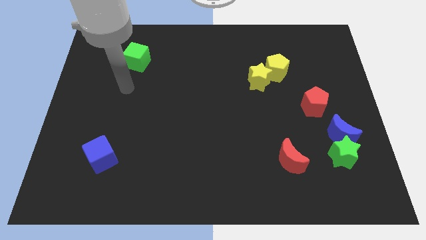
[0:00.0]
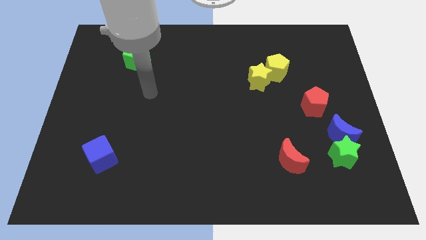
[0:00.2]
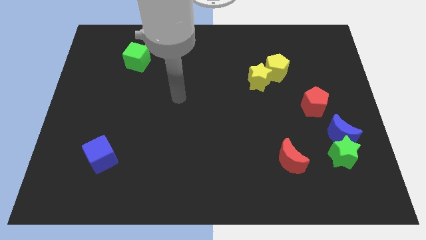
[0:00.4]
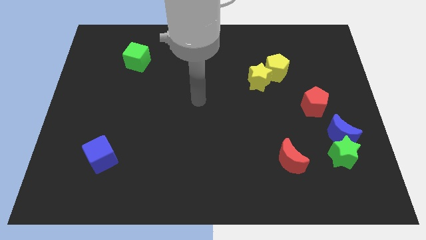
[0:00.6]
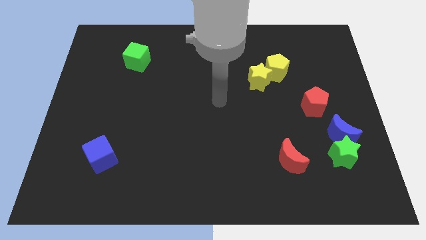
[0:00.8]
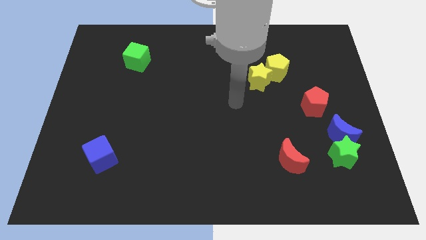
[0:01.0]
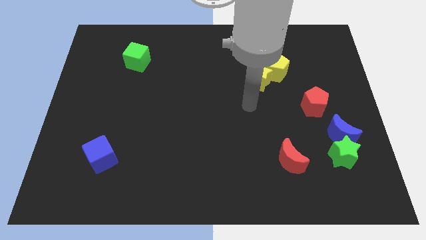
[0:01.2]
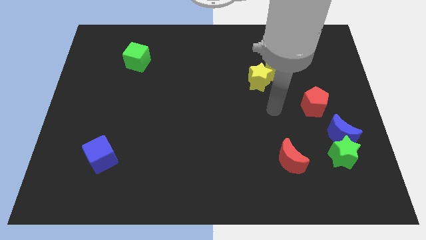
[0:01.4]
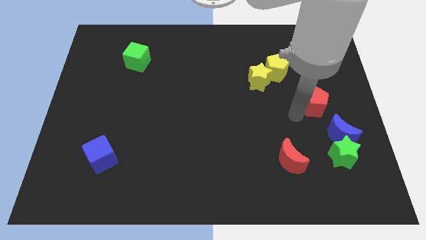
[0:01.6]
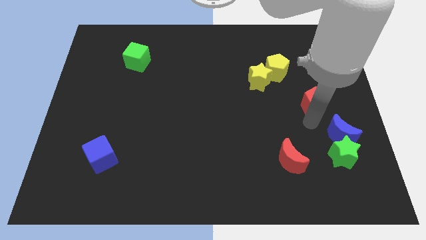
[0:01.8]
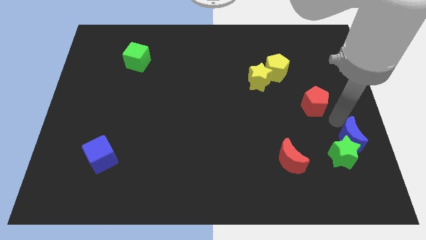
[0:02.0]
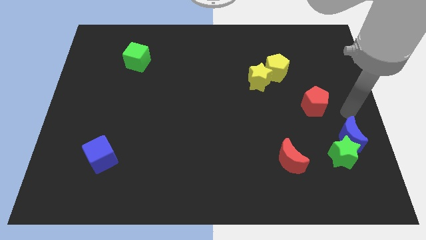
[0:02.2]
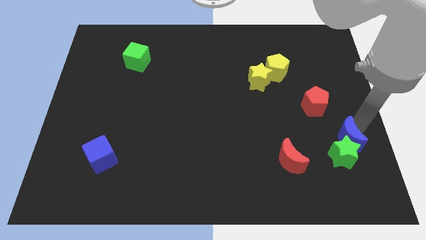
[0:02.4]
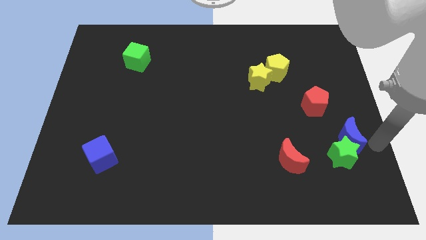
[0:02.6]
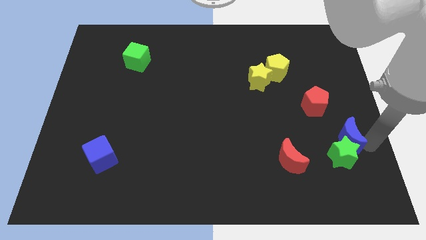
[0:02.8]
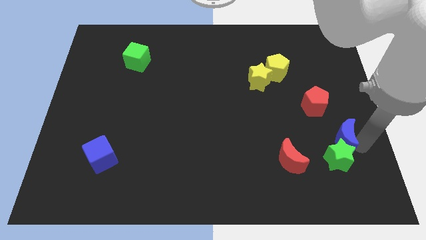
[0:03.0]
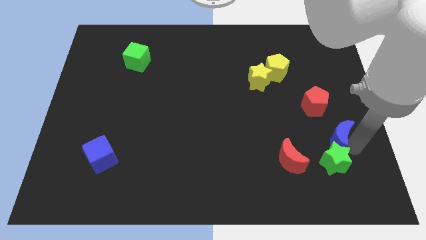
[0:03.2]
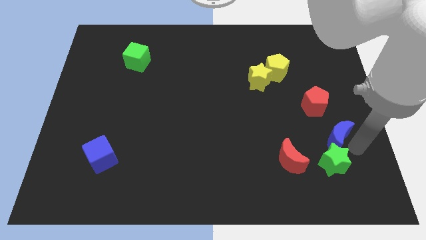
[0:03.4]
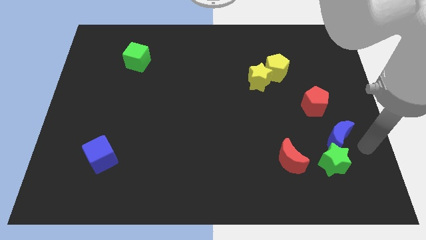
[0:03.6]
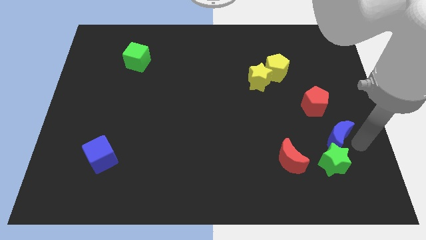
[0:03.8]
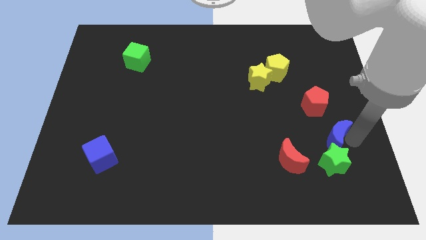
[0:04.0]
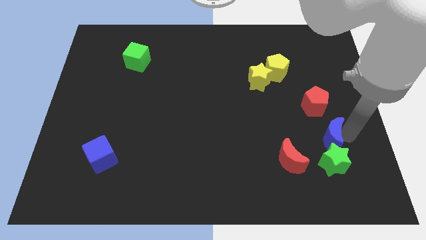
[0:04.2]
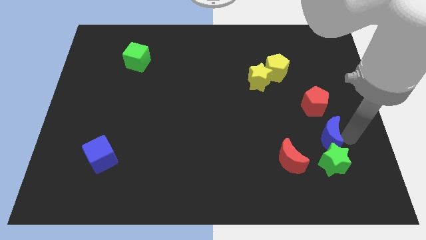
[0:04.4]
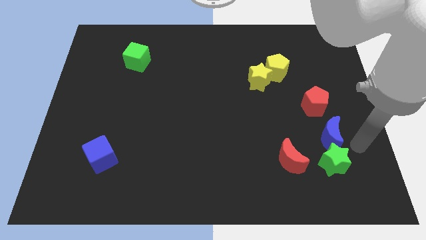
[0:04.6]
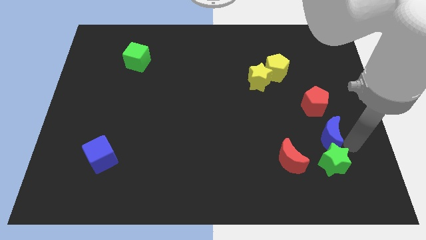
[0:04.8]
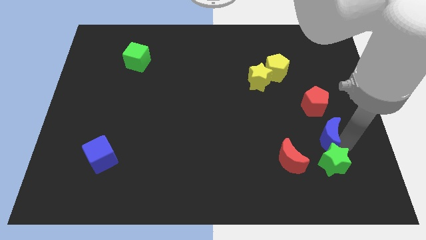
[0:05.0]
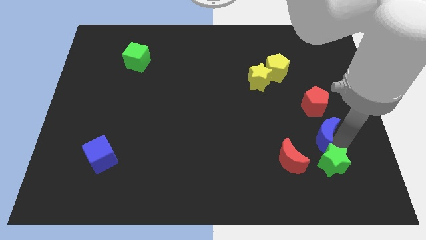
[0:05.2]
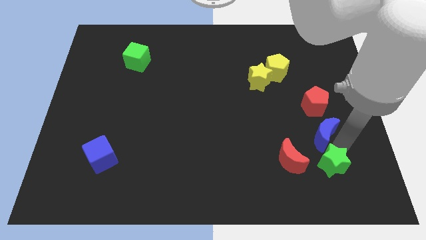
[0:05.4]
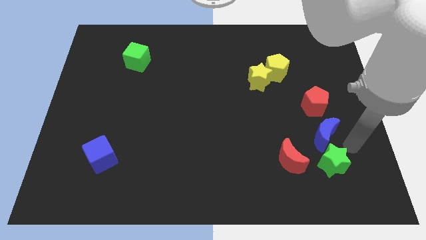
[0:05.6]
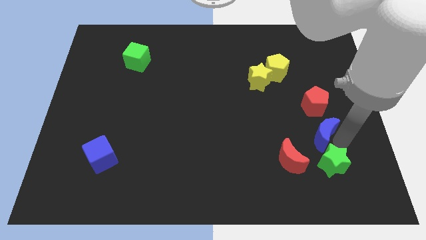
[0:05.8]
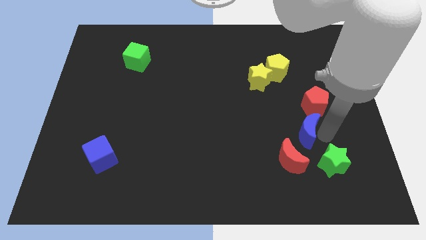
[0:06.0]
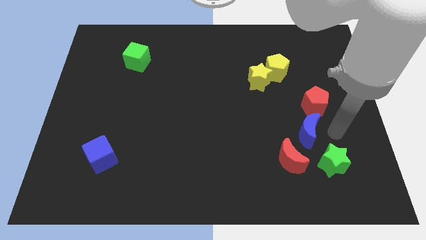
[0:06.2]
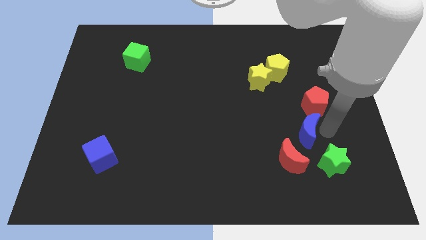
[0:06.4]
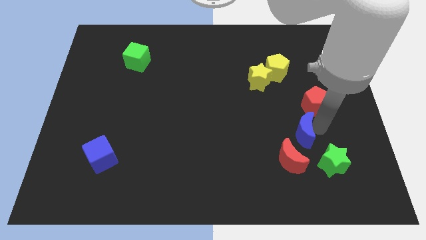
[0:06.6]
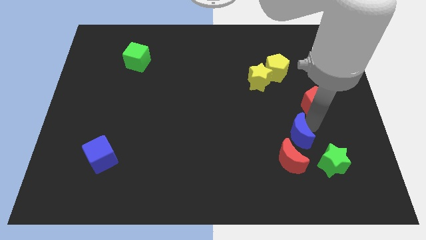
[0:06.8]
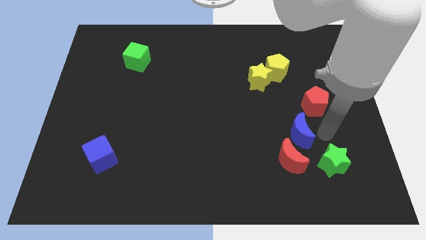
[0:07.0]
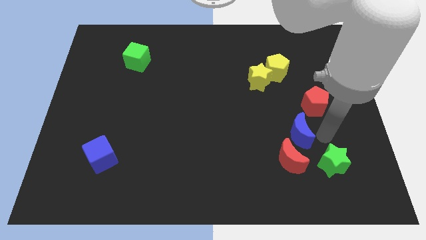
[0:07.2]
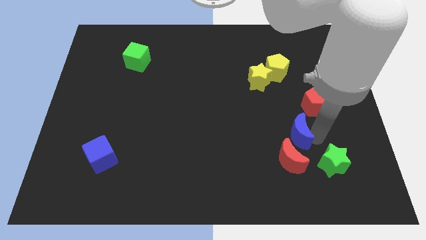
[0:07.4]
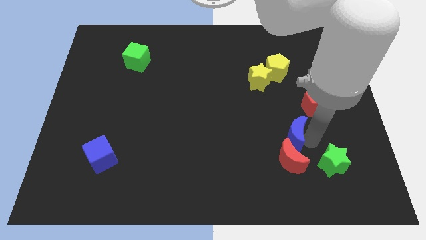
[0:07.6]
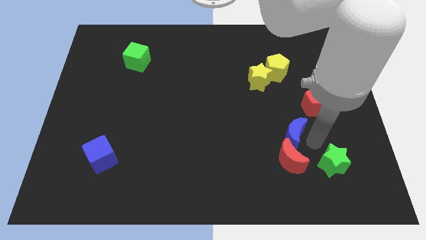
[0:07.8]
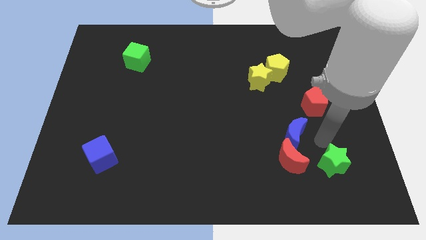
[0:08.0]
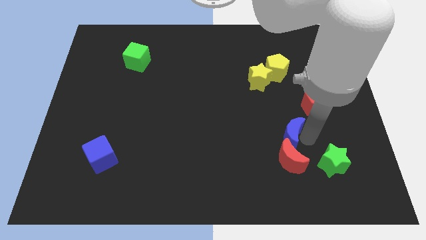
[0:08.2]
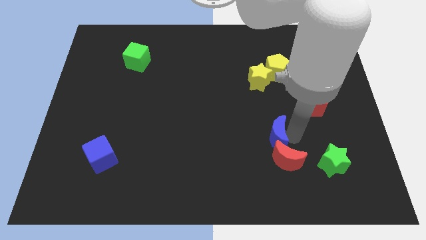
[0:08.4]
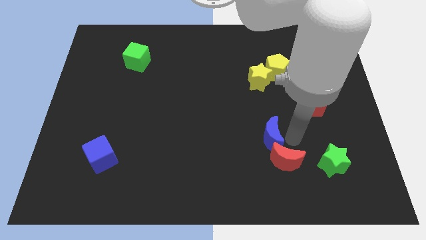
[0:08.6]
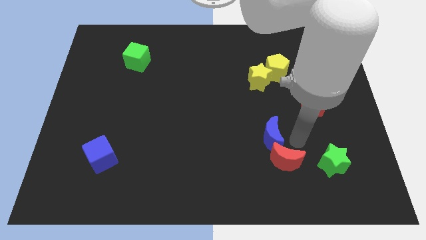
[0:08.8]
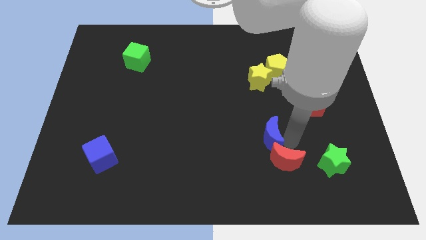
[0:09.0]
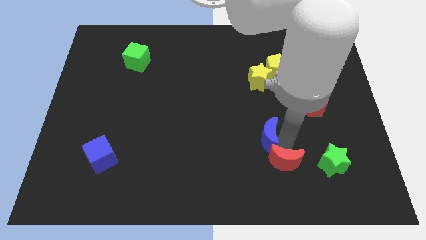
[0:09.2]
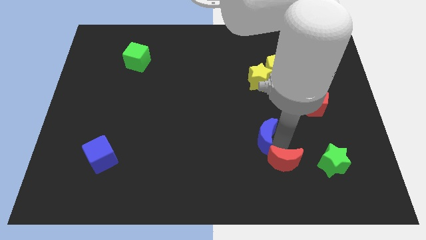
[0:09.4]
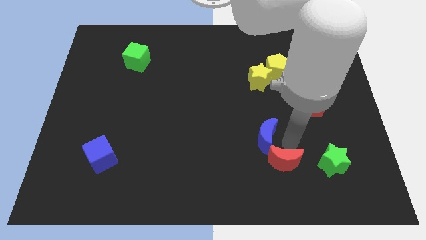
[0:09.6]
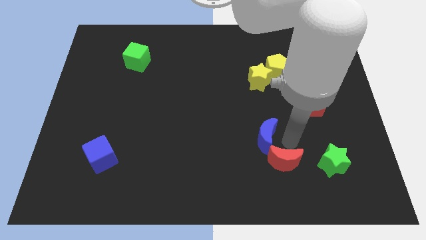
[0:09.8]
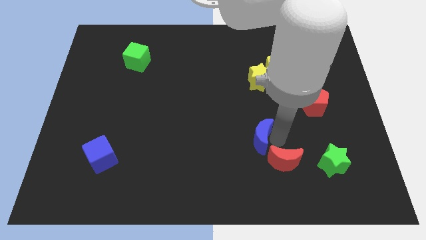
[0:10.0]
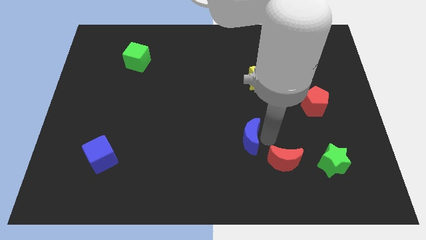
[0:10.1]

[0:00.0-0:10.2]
push the blue moon left

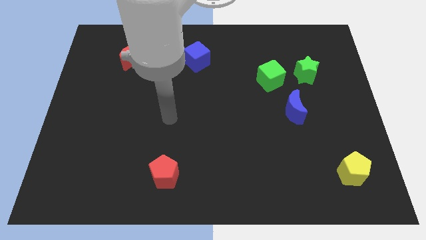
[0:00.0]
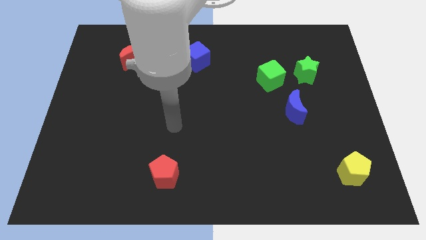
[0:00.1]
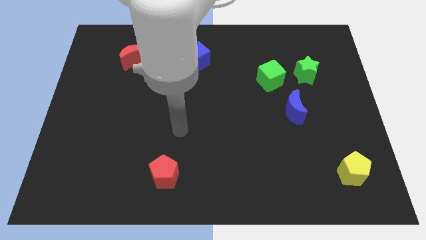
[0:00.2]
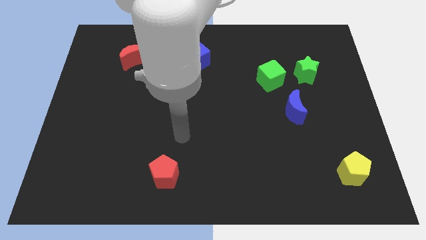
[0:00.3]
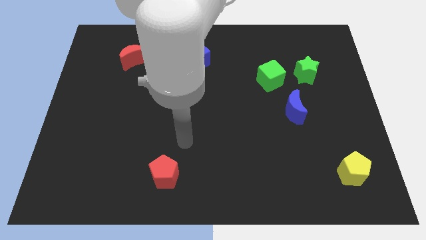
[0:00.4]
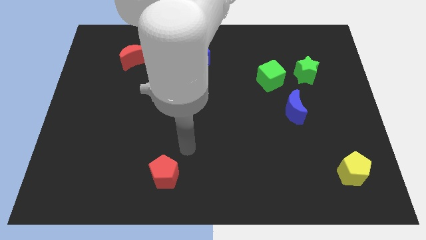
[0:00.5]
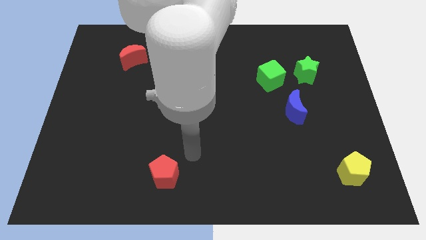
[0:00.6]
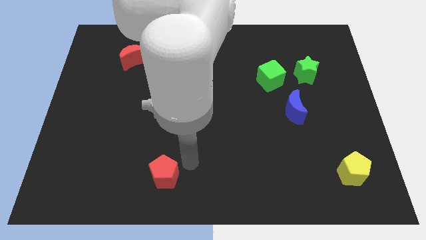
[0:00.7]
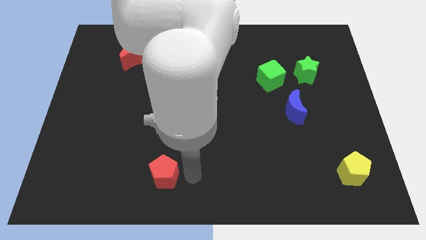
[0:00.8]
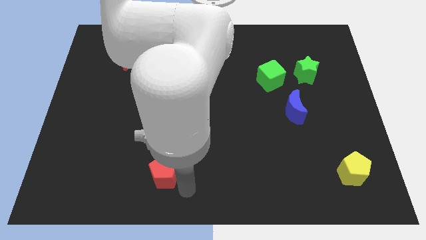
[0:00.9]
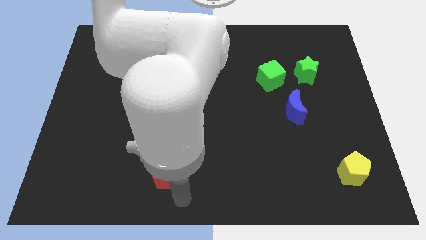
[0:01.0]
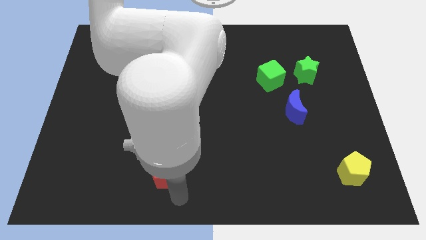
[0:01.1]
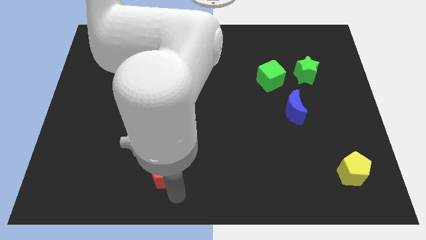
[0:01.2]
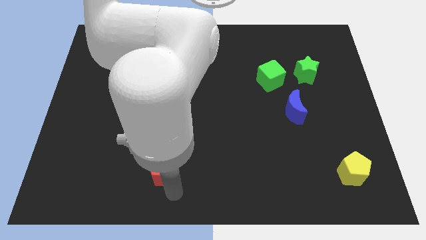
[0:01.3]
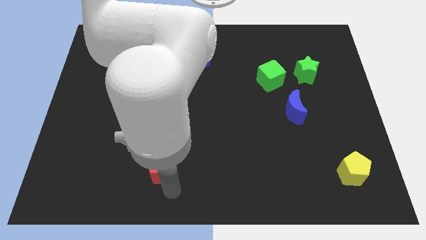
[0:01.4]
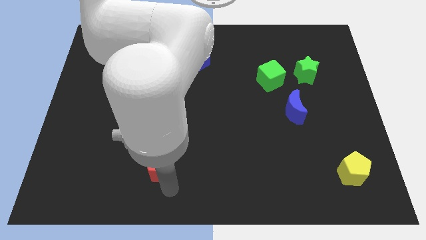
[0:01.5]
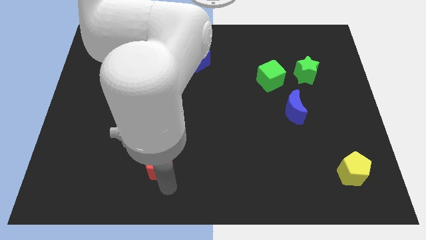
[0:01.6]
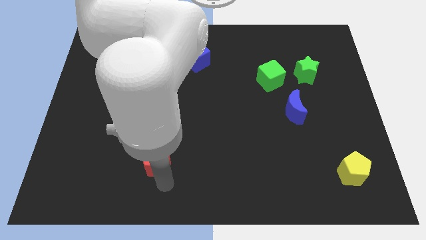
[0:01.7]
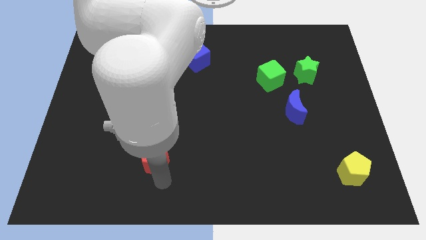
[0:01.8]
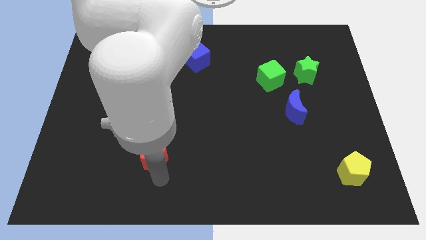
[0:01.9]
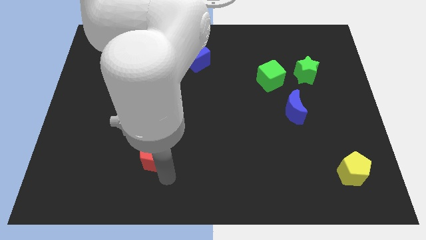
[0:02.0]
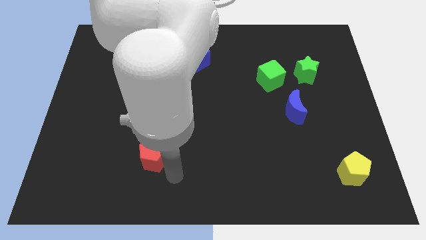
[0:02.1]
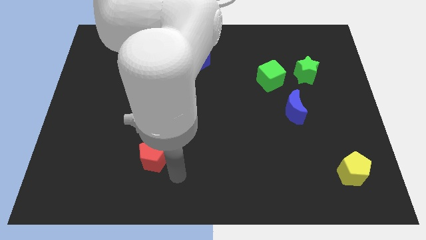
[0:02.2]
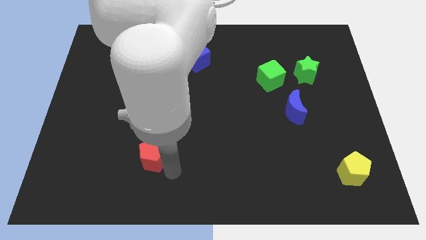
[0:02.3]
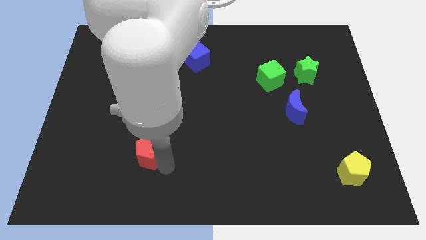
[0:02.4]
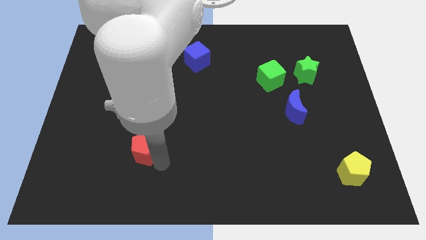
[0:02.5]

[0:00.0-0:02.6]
slightly move the red pentagon upwards and left diagonally

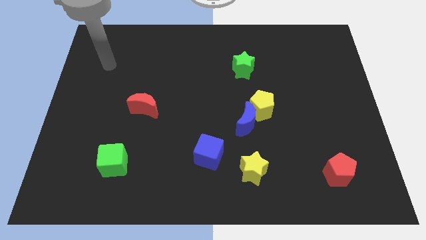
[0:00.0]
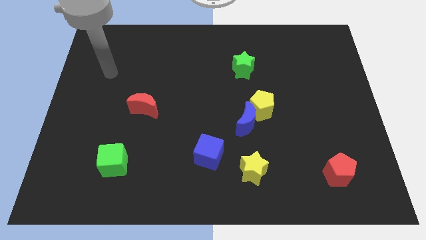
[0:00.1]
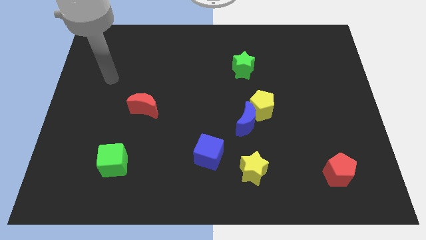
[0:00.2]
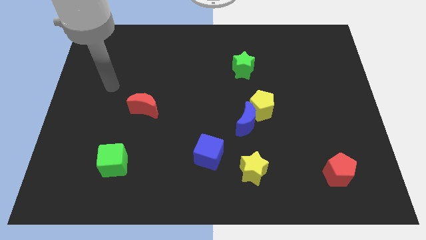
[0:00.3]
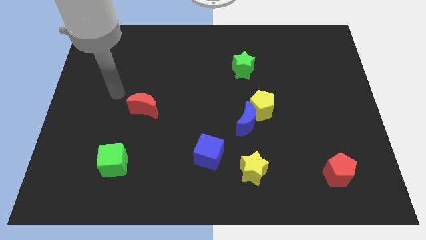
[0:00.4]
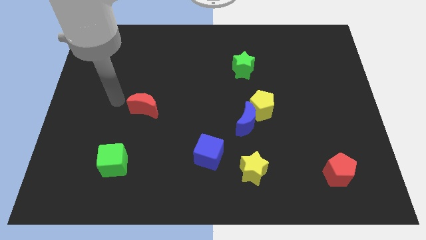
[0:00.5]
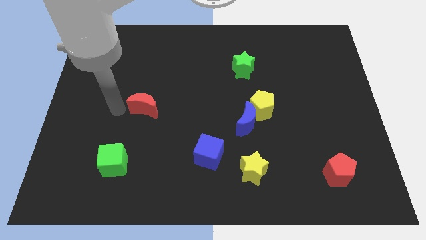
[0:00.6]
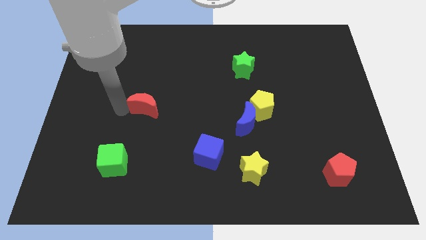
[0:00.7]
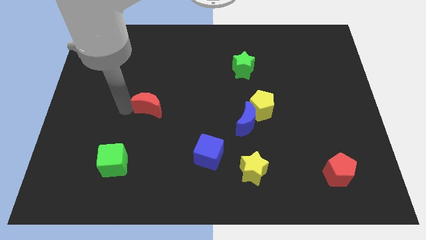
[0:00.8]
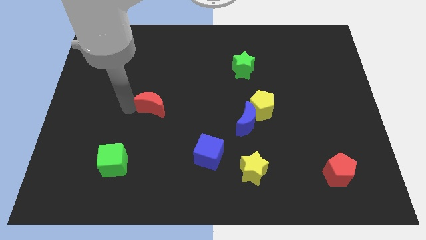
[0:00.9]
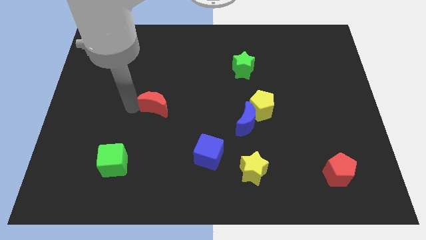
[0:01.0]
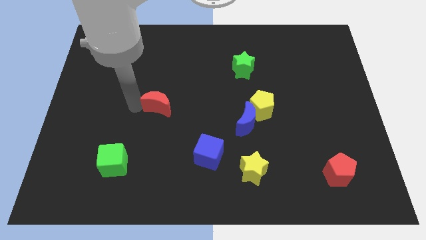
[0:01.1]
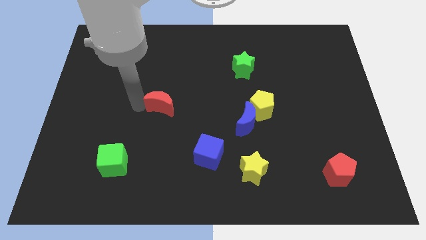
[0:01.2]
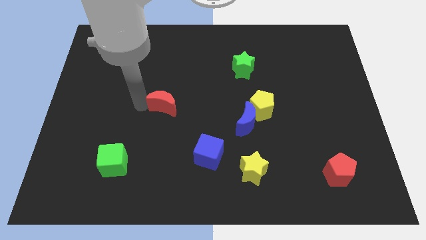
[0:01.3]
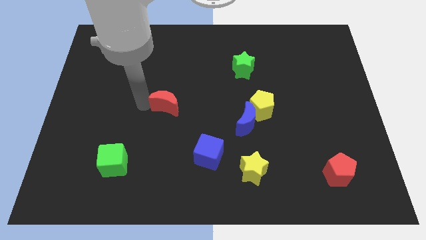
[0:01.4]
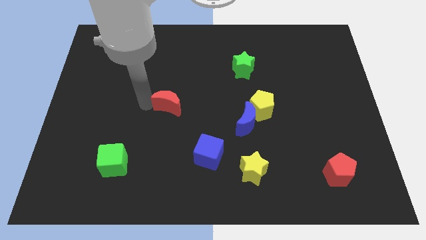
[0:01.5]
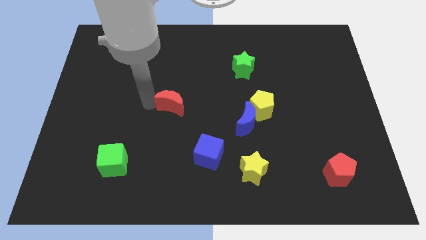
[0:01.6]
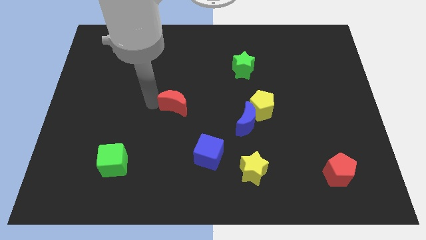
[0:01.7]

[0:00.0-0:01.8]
move the red moon a bit to the right
